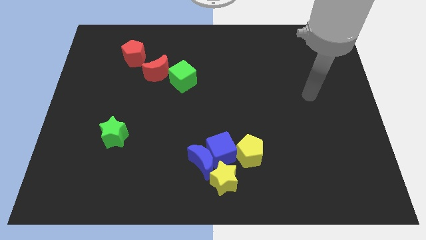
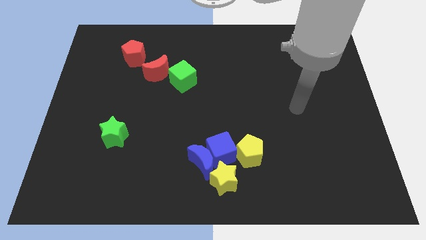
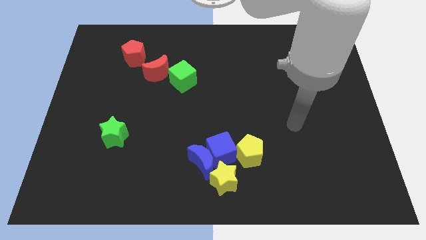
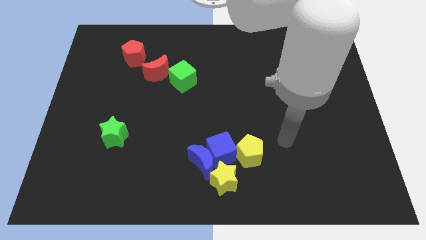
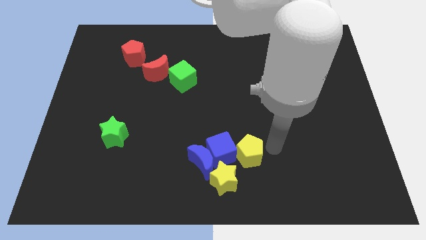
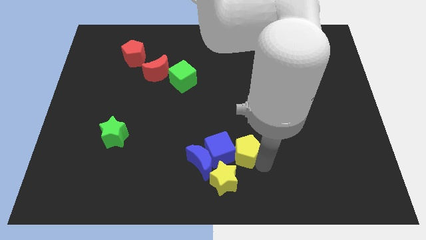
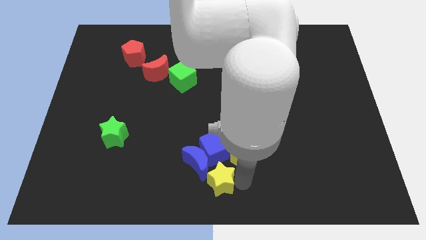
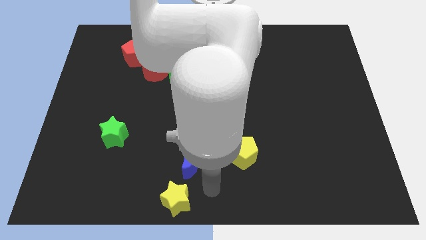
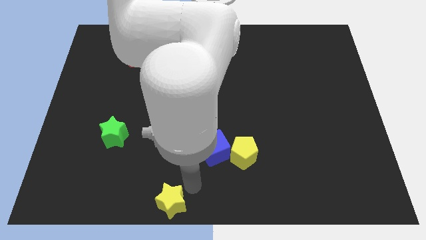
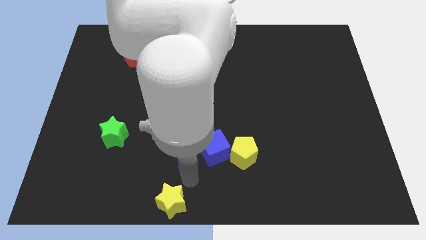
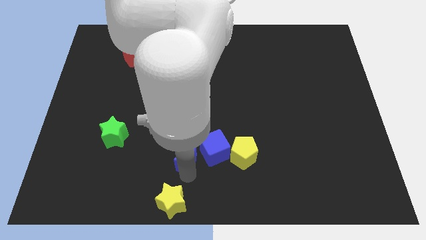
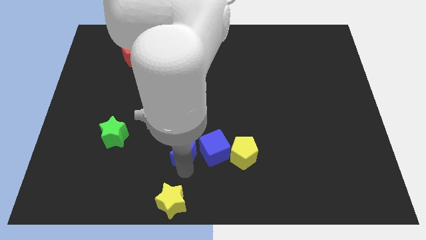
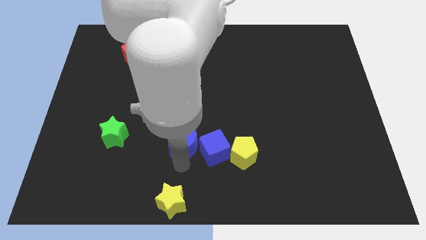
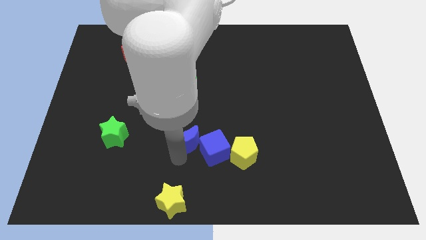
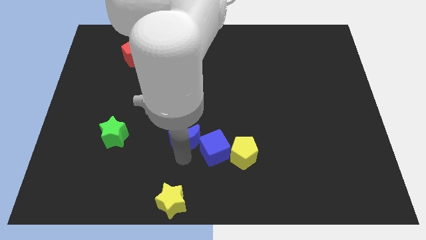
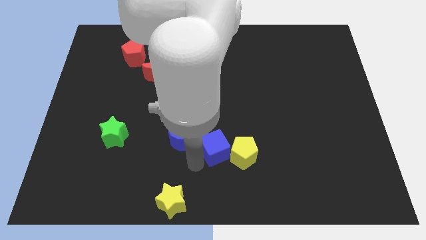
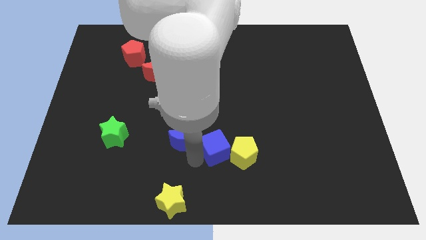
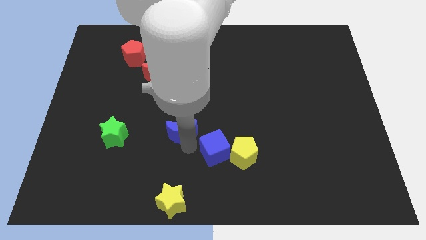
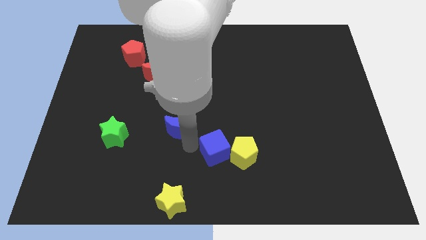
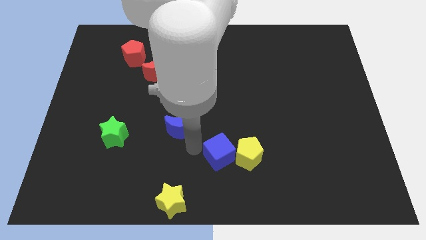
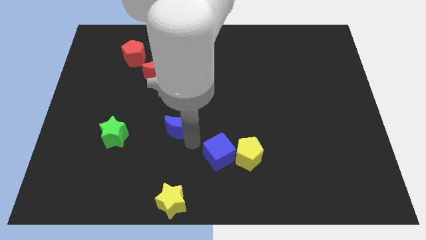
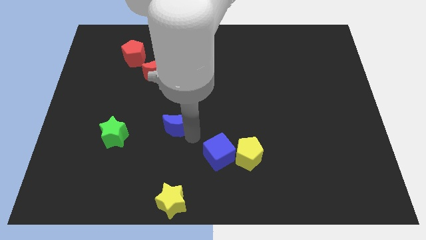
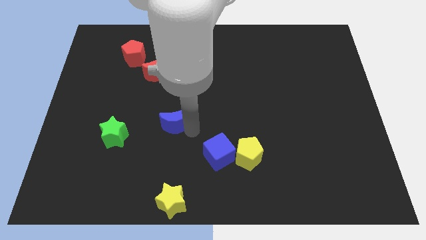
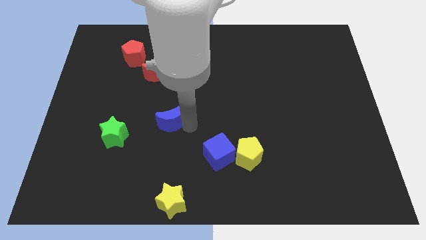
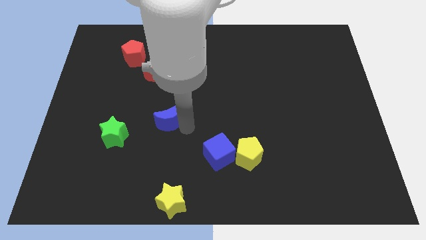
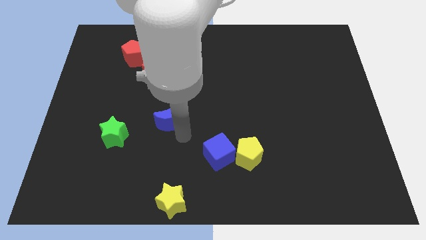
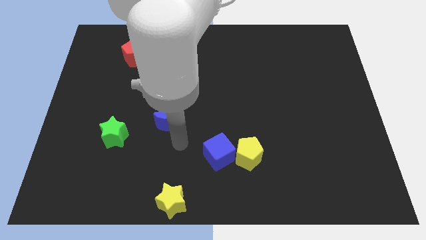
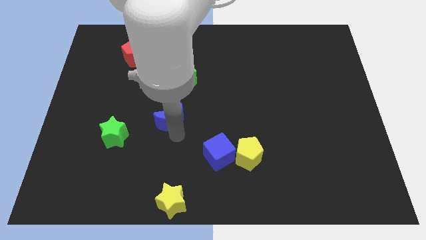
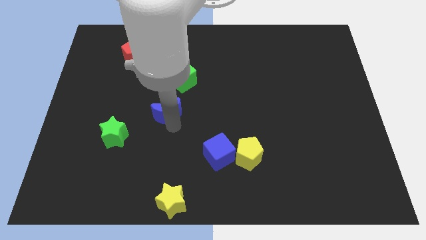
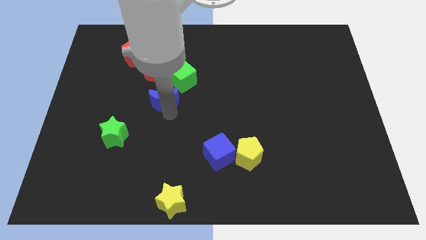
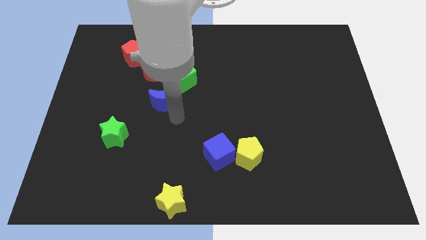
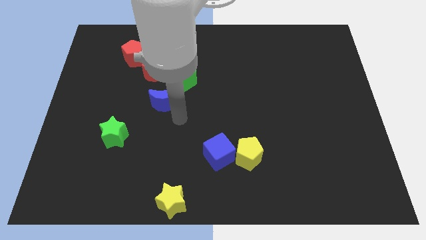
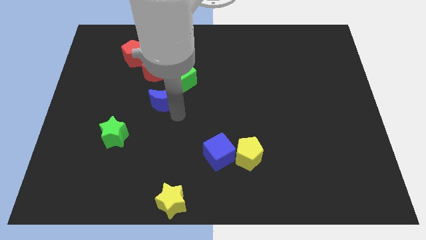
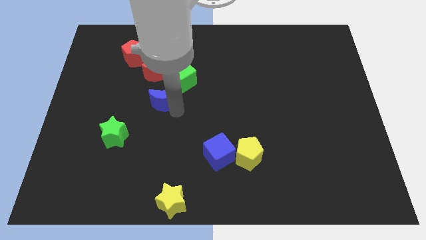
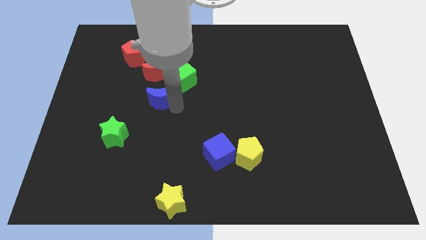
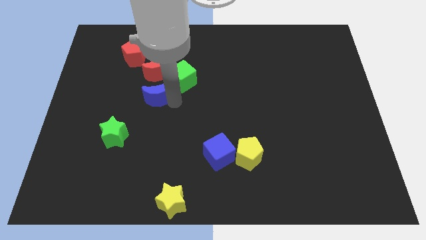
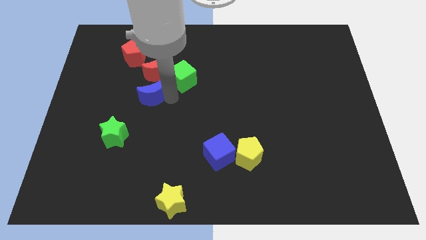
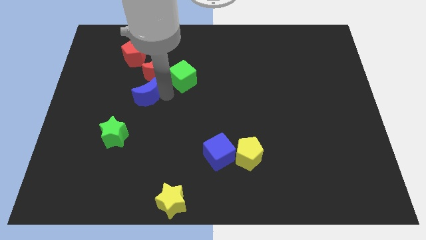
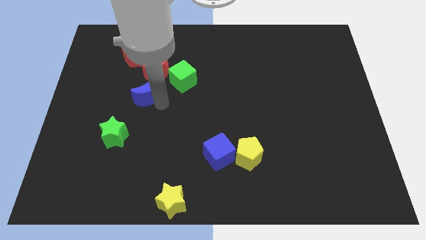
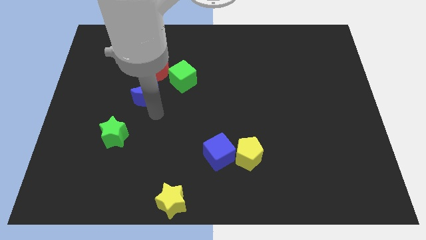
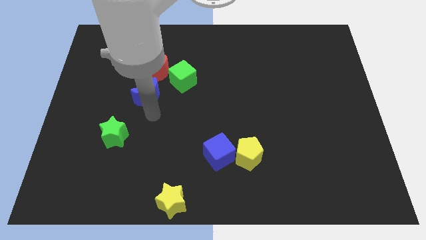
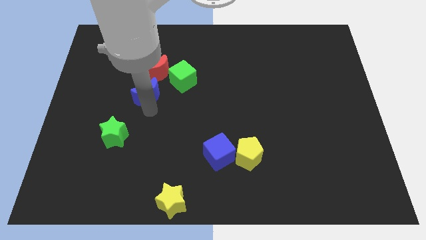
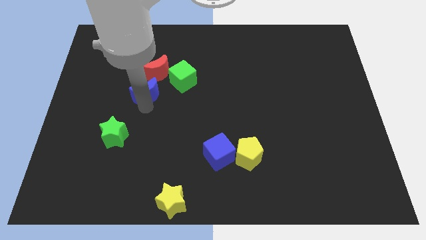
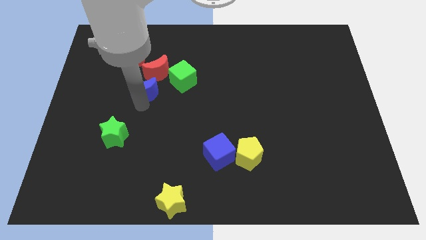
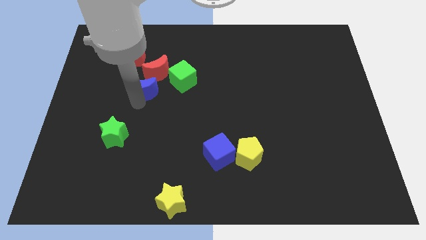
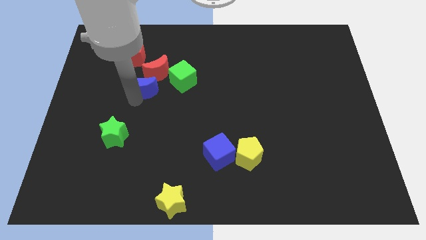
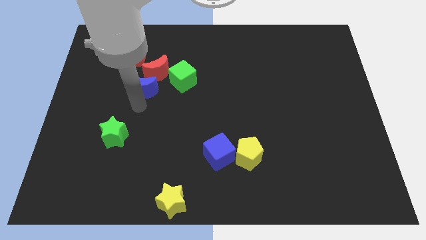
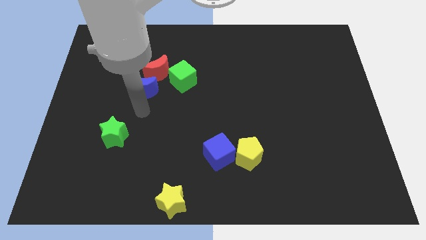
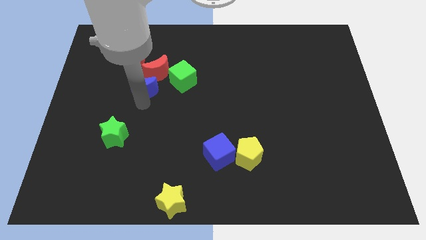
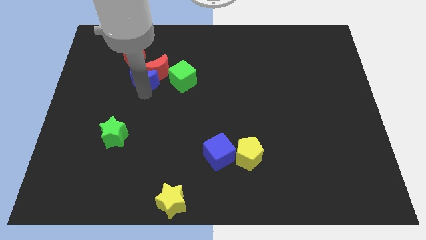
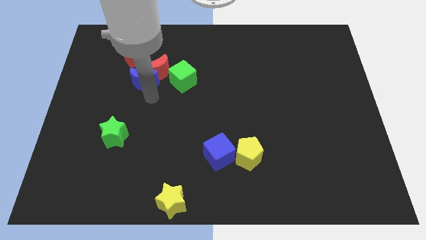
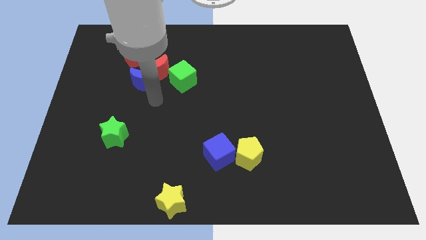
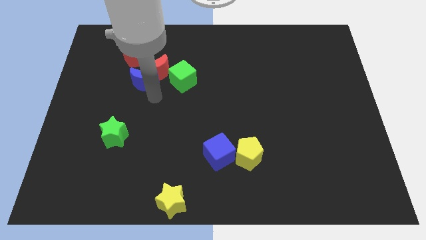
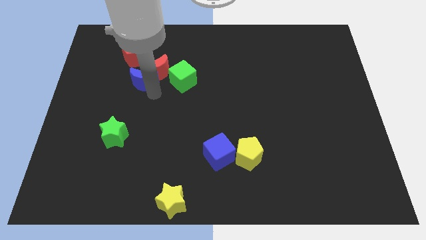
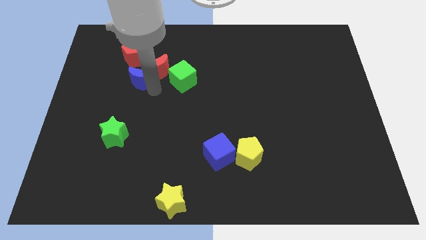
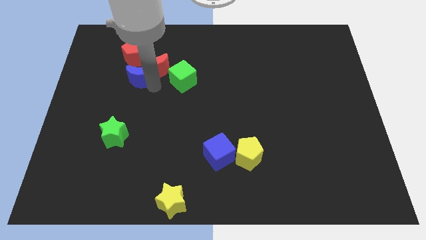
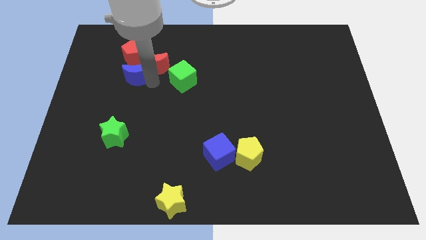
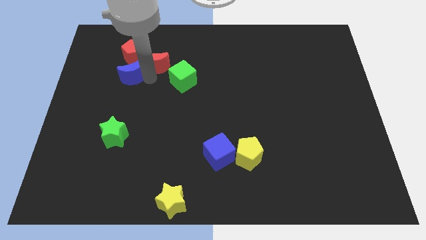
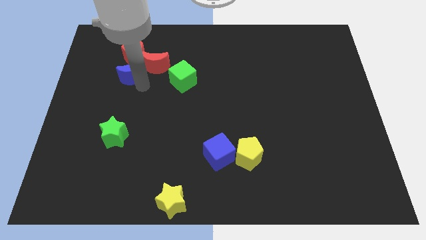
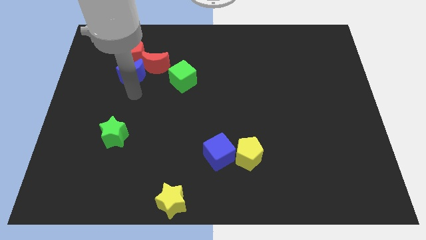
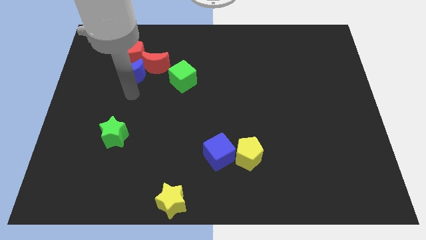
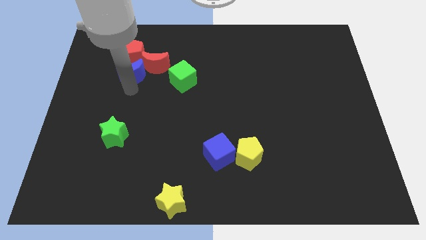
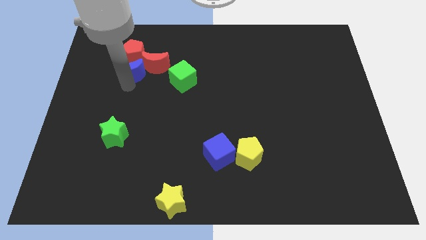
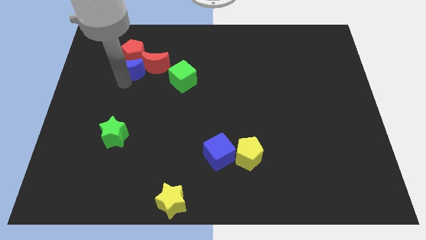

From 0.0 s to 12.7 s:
move the blue moon next to the red pentagon

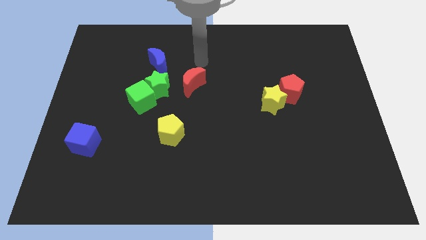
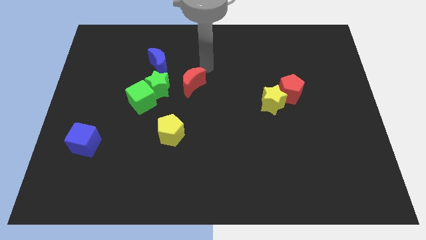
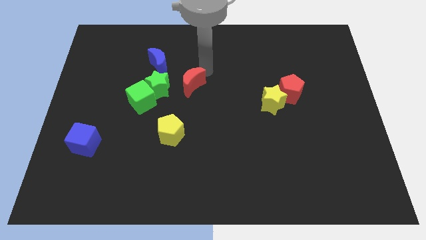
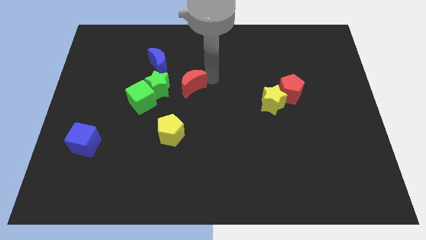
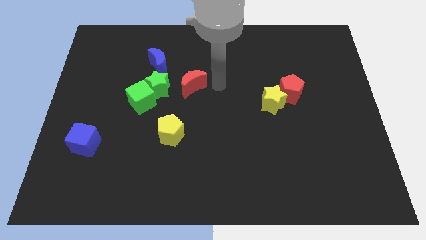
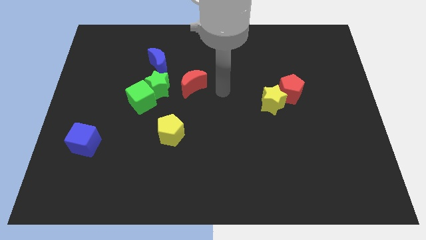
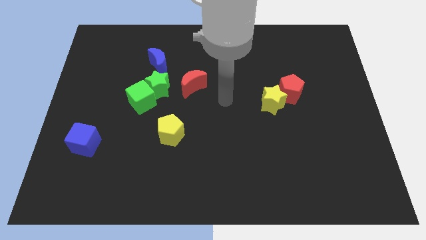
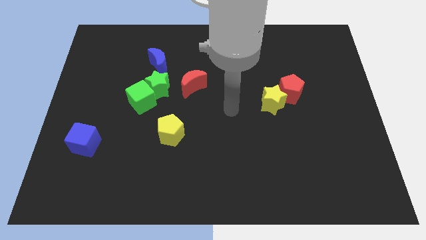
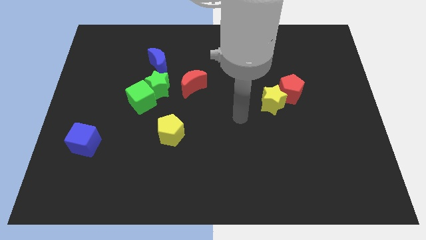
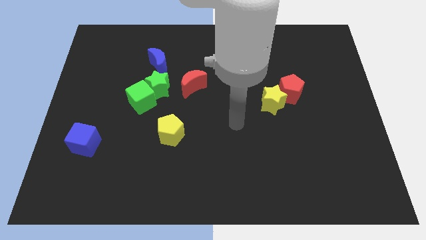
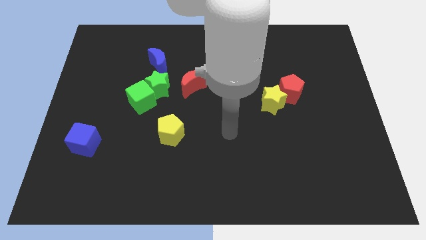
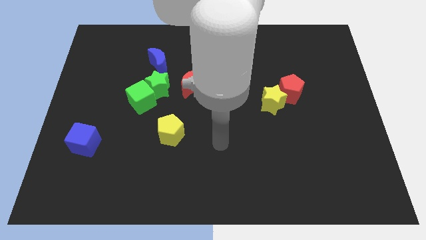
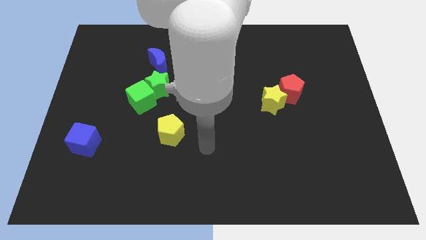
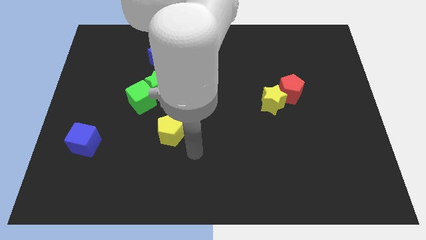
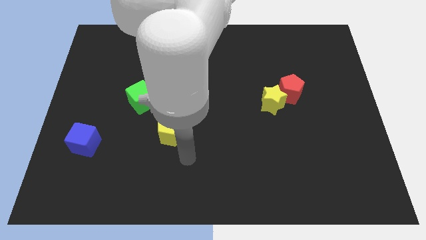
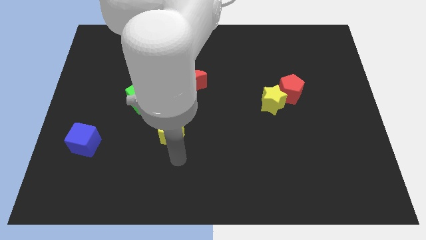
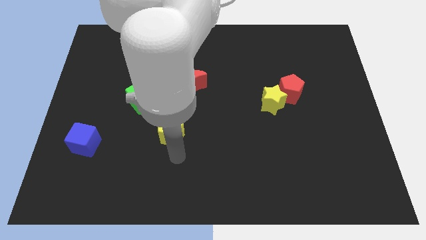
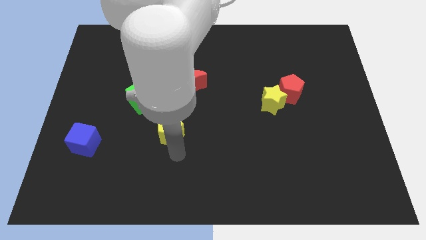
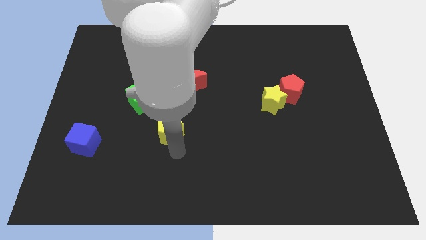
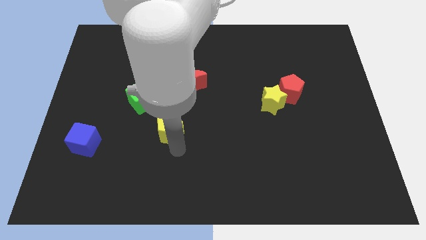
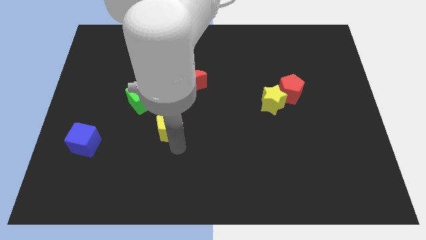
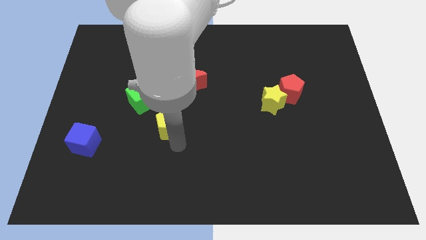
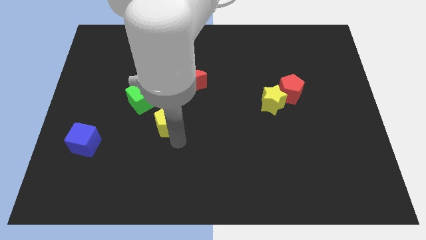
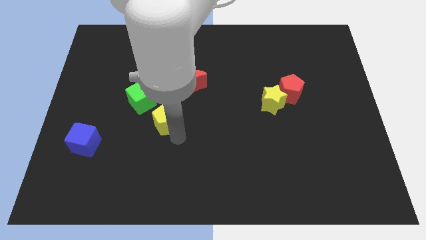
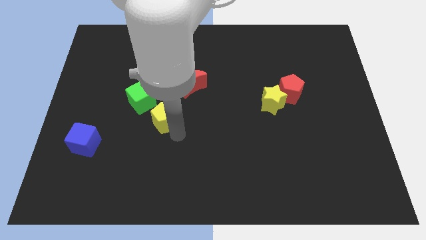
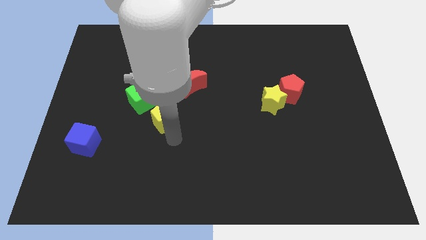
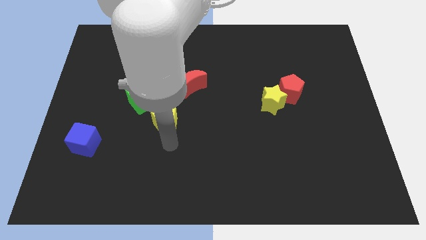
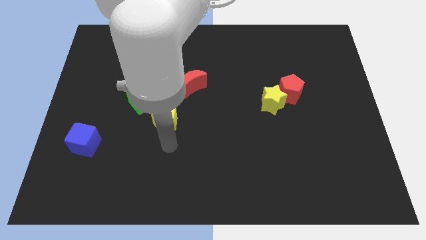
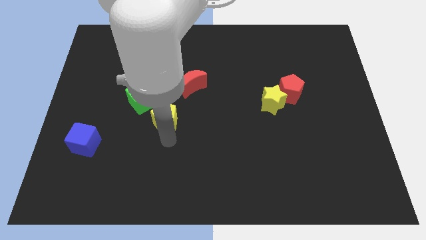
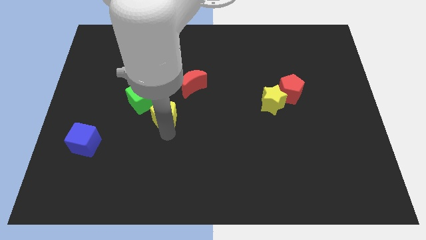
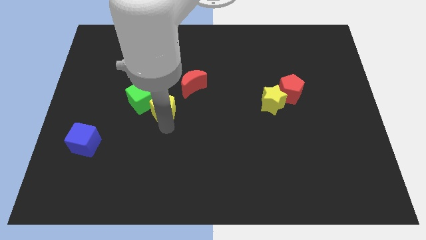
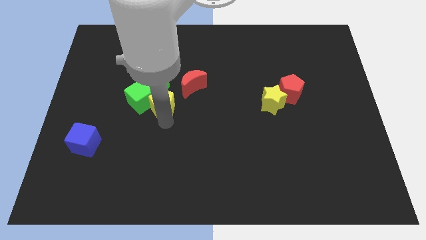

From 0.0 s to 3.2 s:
push the yellow pentagon to the green star
